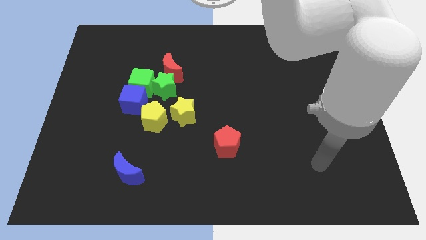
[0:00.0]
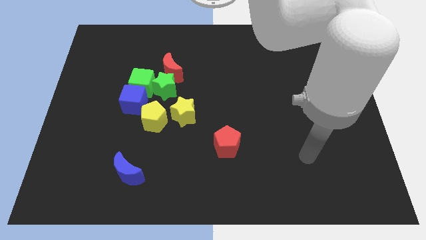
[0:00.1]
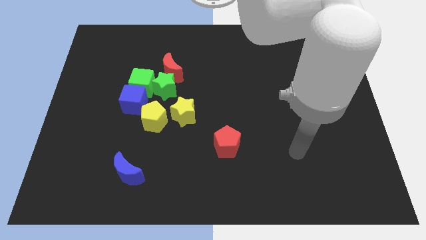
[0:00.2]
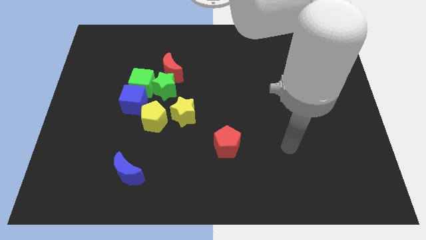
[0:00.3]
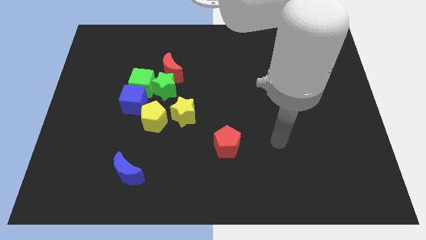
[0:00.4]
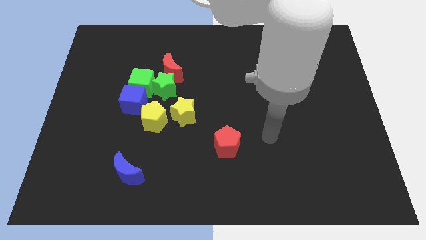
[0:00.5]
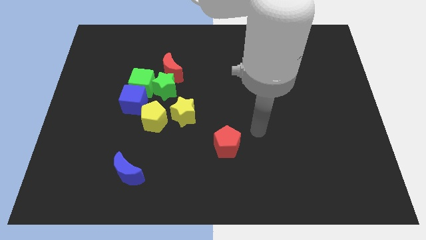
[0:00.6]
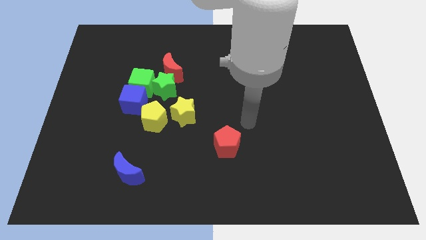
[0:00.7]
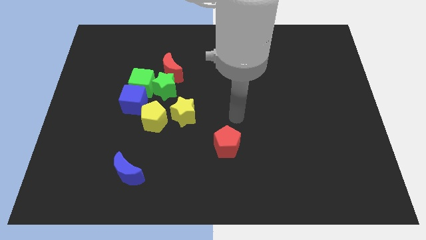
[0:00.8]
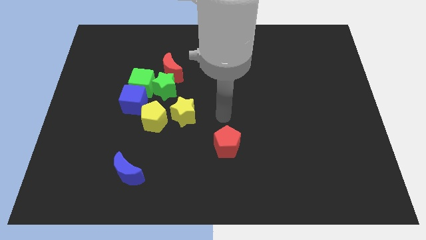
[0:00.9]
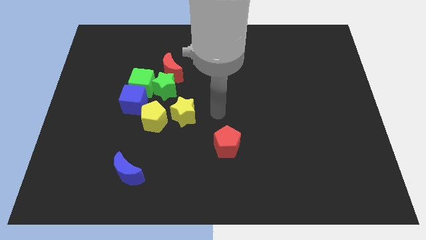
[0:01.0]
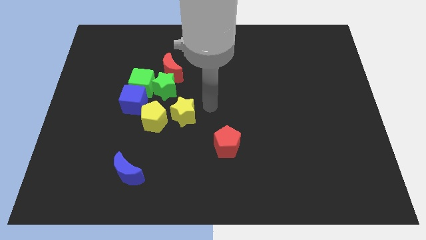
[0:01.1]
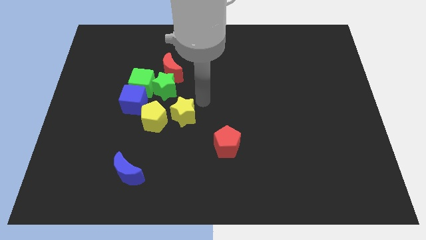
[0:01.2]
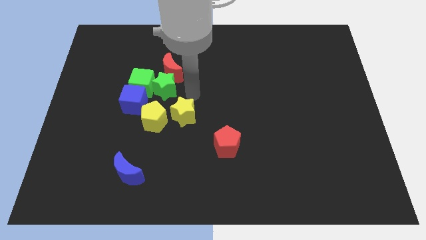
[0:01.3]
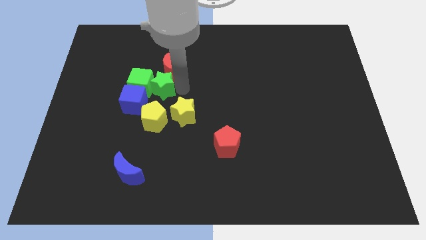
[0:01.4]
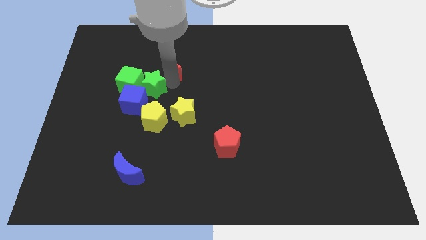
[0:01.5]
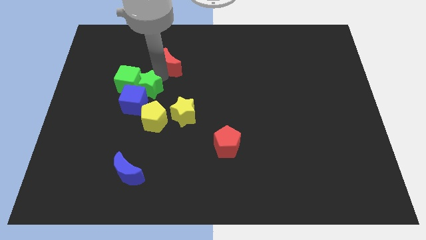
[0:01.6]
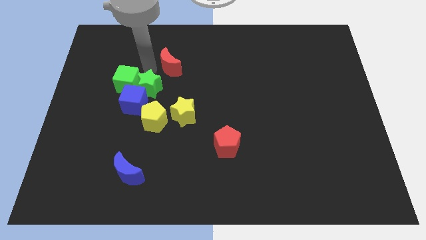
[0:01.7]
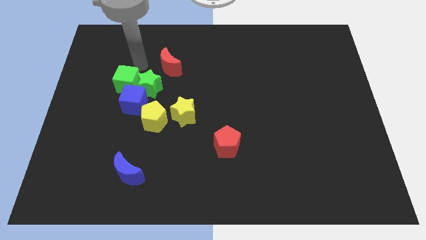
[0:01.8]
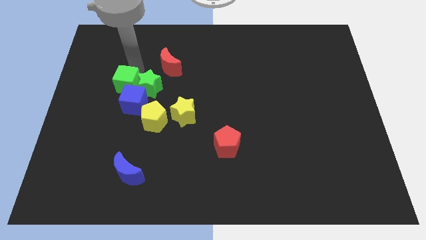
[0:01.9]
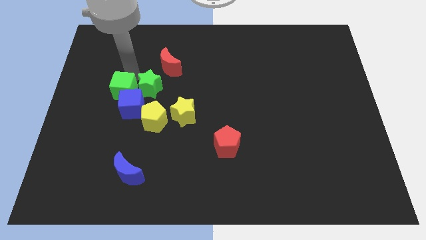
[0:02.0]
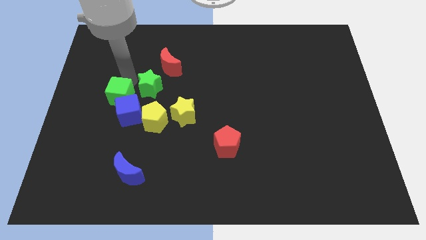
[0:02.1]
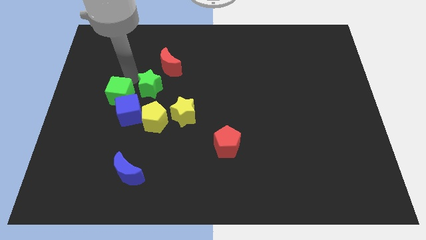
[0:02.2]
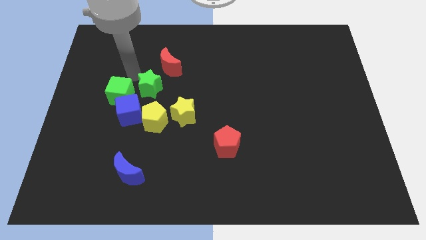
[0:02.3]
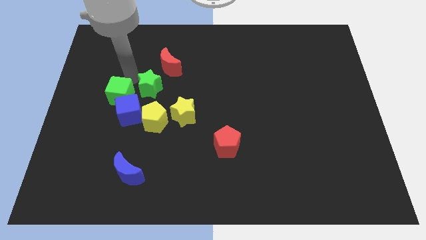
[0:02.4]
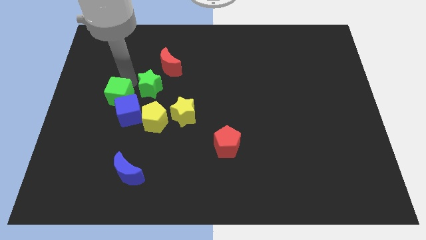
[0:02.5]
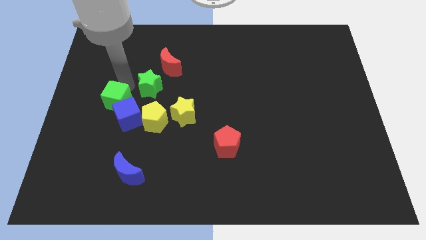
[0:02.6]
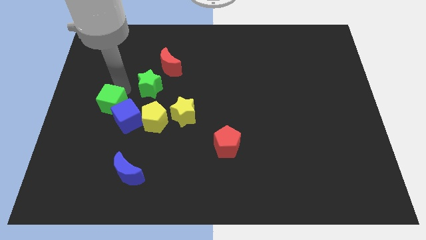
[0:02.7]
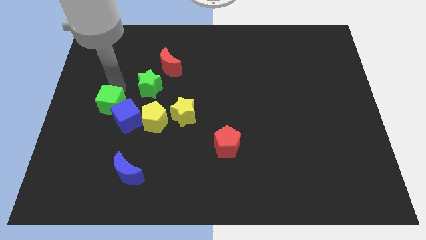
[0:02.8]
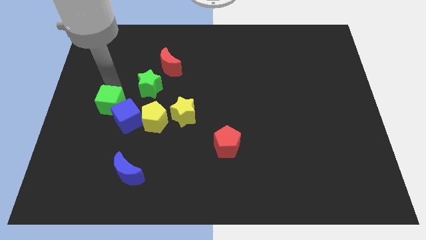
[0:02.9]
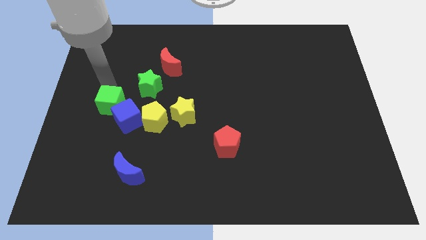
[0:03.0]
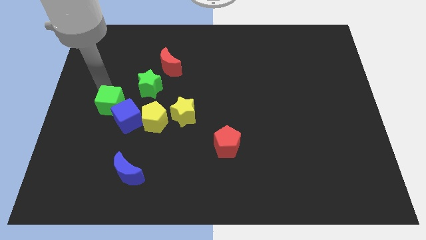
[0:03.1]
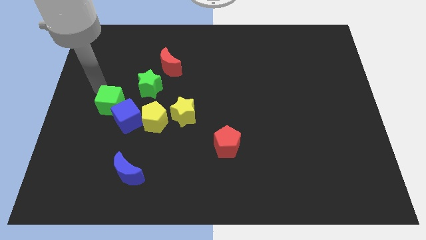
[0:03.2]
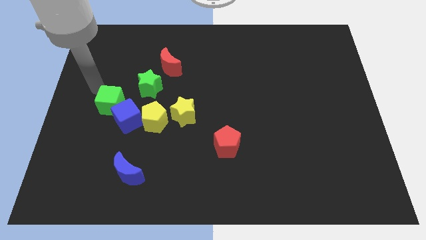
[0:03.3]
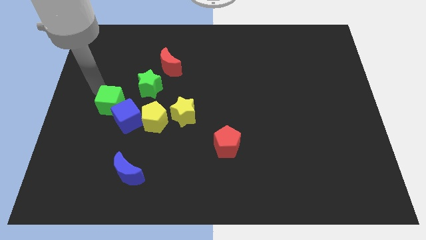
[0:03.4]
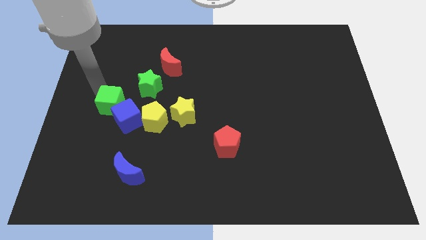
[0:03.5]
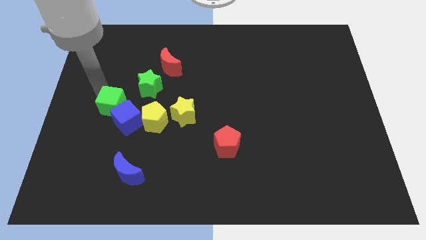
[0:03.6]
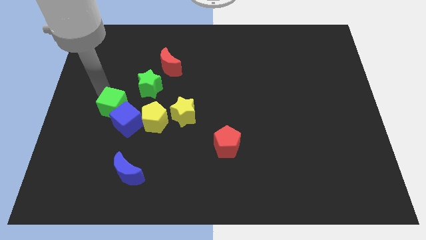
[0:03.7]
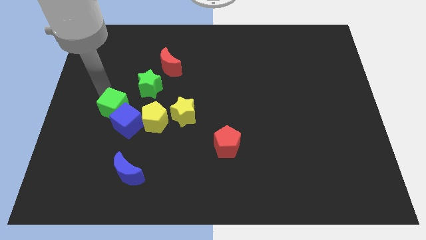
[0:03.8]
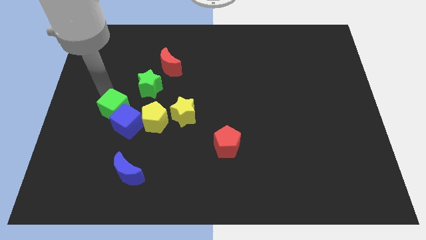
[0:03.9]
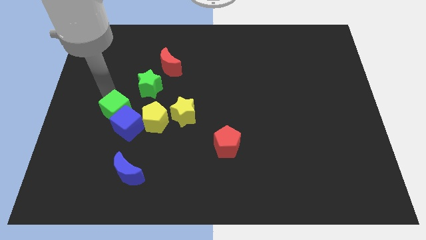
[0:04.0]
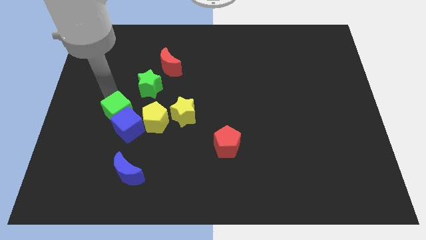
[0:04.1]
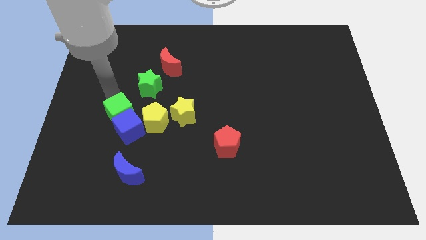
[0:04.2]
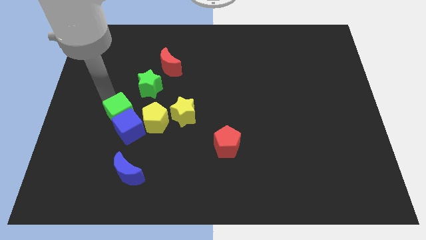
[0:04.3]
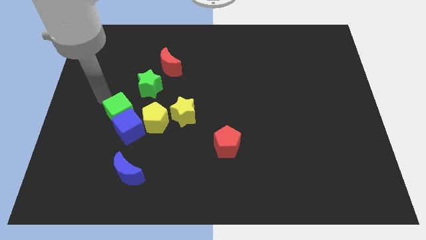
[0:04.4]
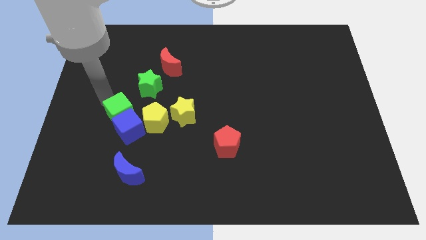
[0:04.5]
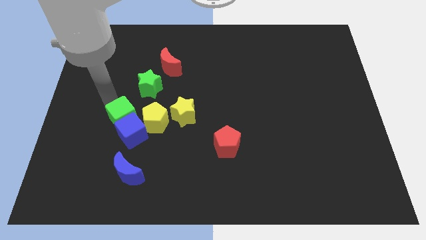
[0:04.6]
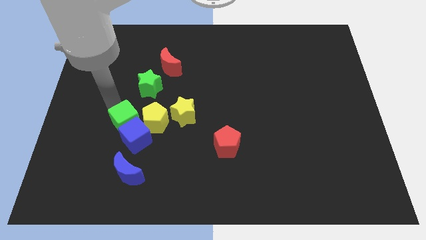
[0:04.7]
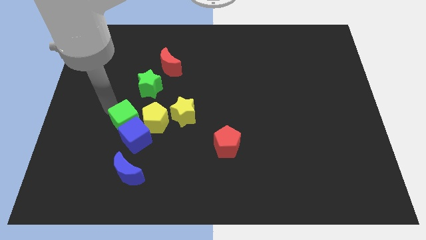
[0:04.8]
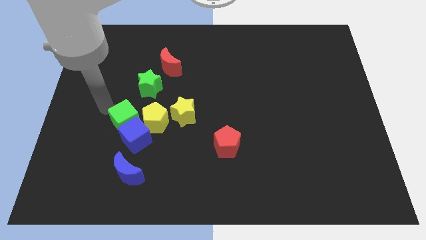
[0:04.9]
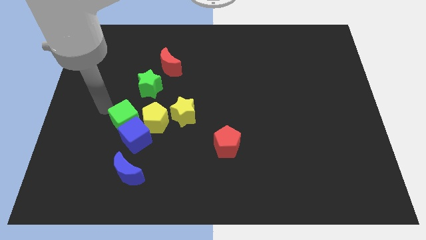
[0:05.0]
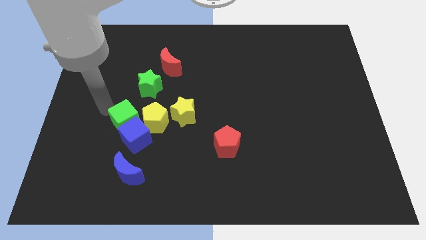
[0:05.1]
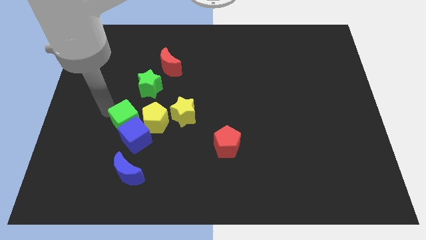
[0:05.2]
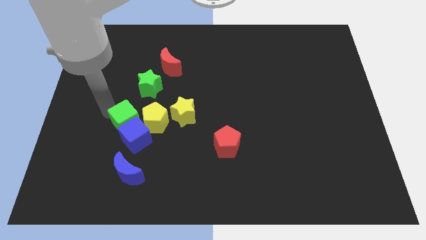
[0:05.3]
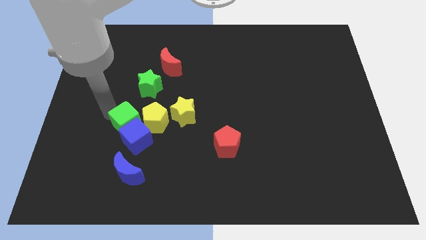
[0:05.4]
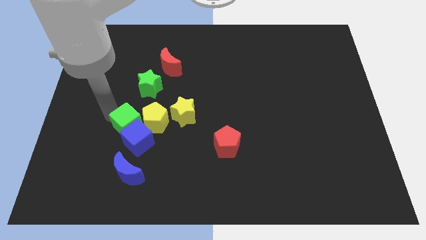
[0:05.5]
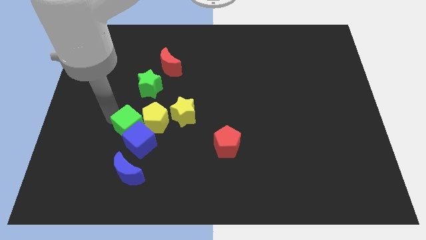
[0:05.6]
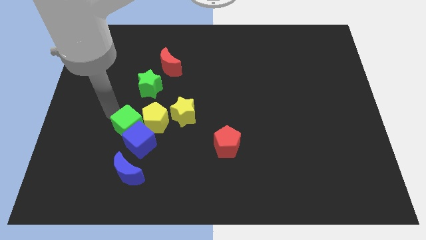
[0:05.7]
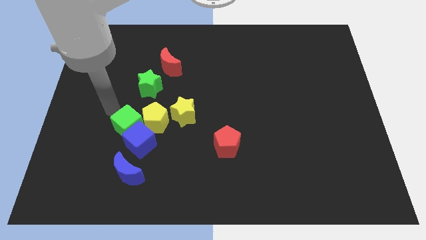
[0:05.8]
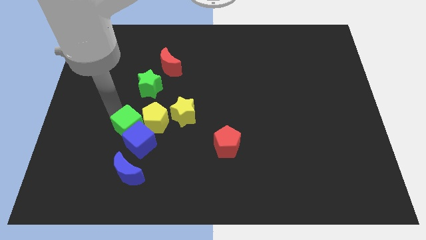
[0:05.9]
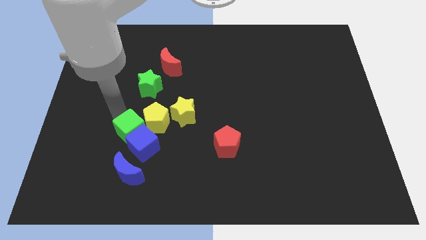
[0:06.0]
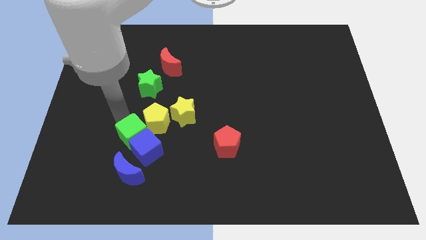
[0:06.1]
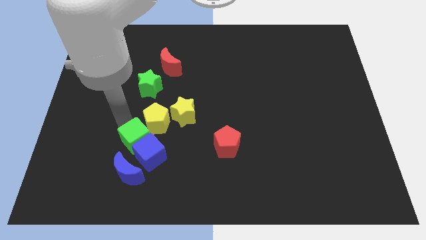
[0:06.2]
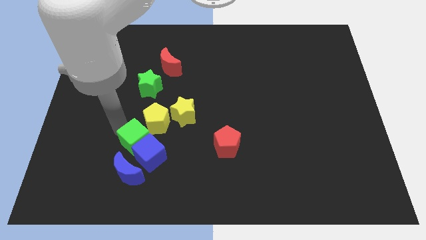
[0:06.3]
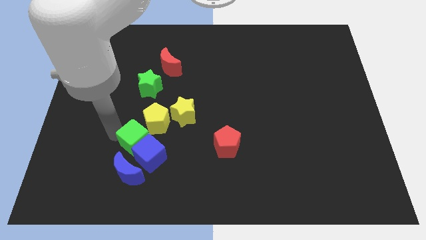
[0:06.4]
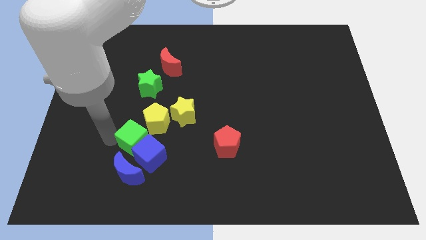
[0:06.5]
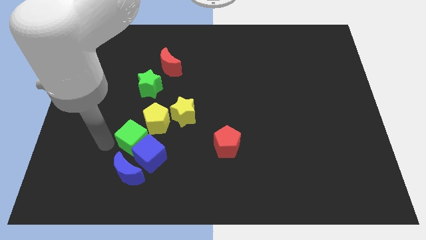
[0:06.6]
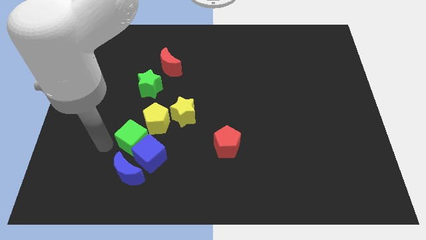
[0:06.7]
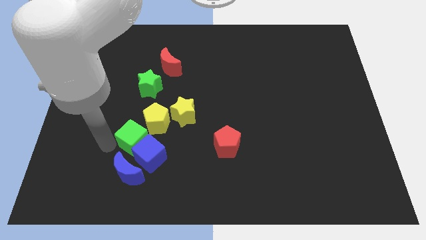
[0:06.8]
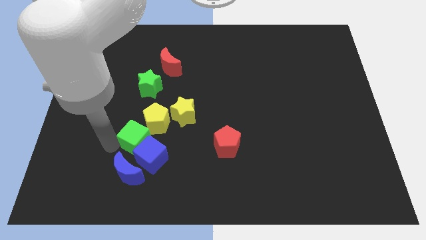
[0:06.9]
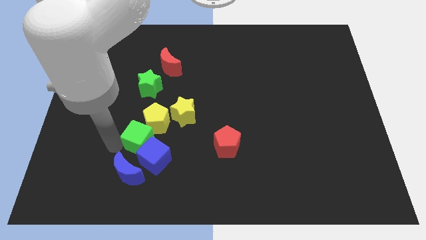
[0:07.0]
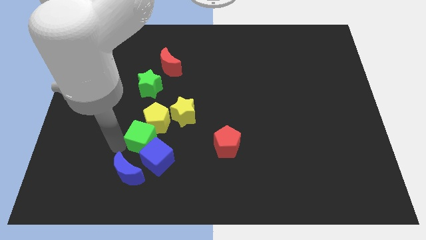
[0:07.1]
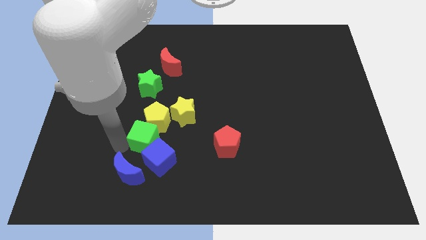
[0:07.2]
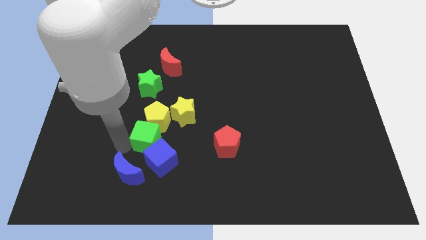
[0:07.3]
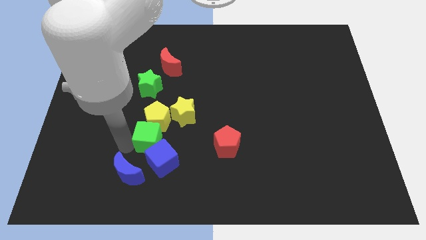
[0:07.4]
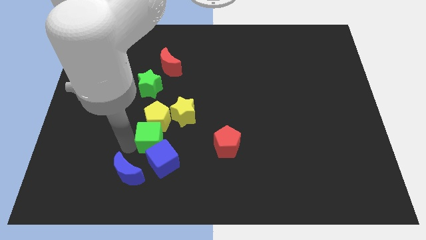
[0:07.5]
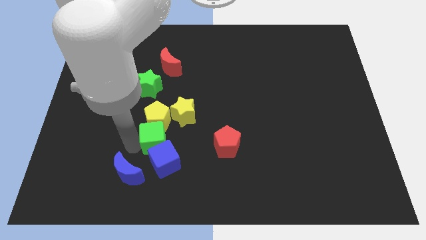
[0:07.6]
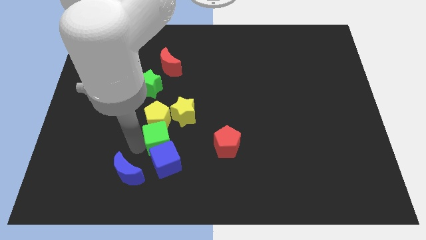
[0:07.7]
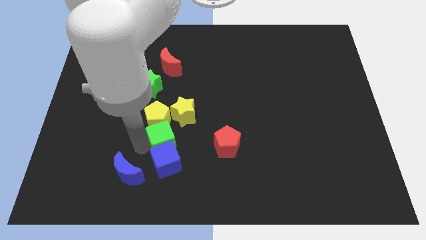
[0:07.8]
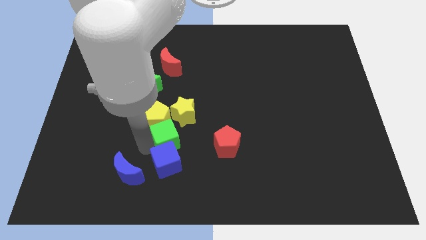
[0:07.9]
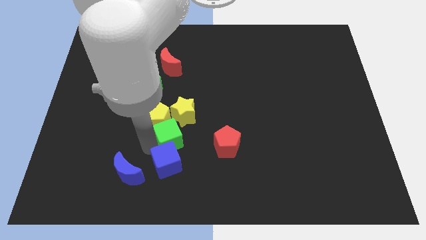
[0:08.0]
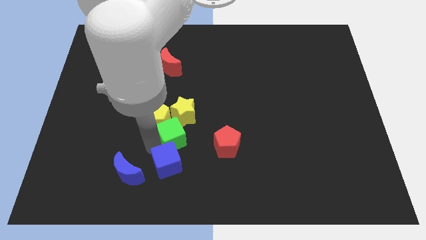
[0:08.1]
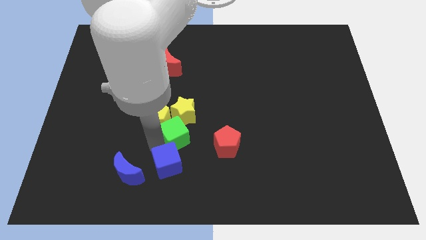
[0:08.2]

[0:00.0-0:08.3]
slide the green cube next to the yellow star
